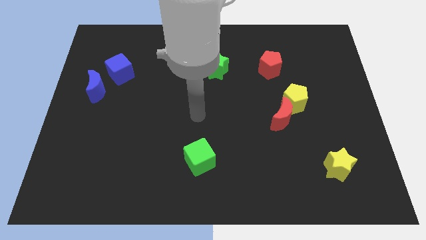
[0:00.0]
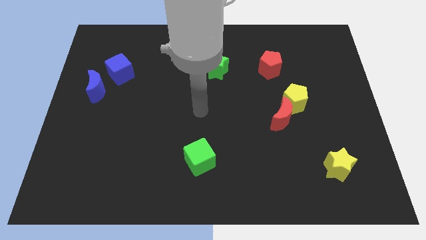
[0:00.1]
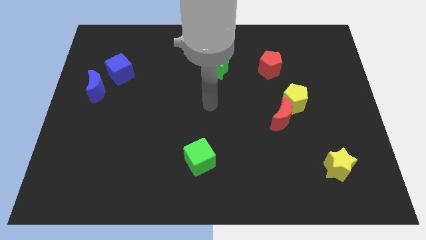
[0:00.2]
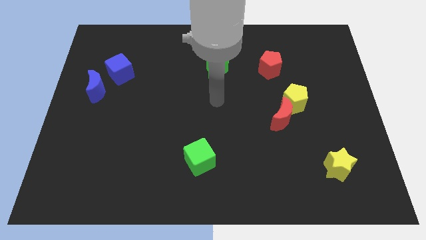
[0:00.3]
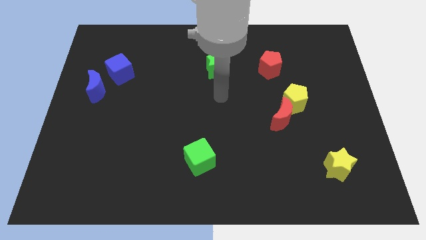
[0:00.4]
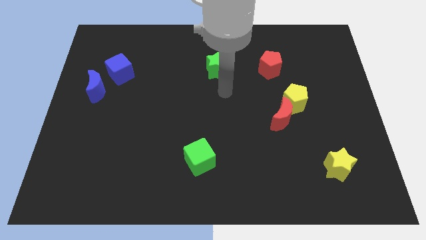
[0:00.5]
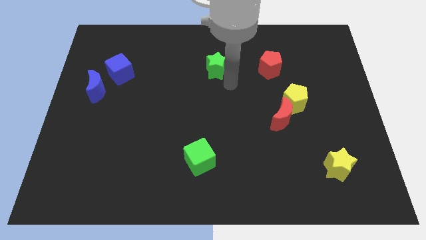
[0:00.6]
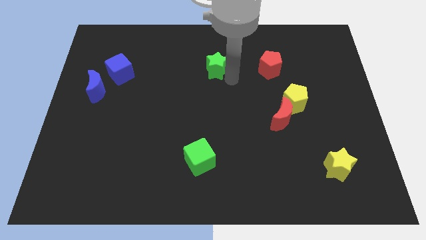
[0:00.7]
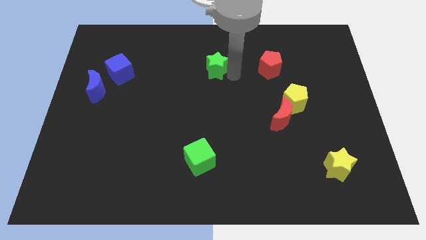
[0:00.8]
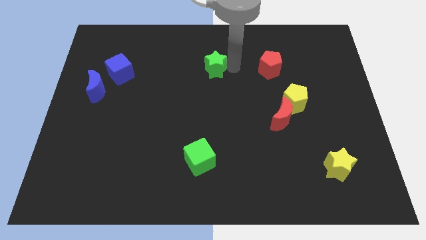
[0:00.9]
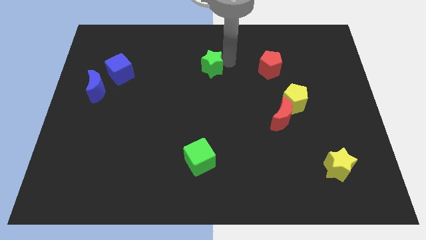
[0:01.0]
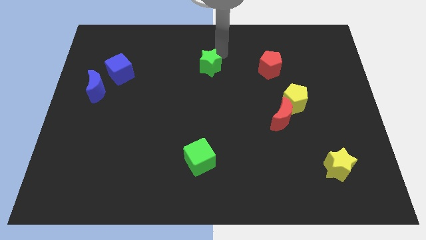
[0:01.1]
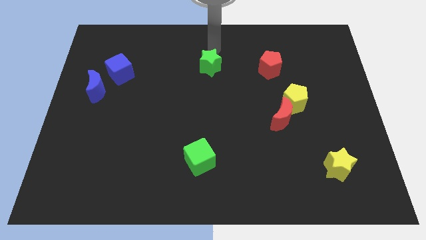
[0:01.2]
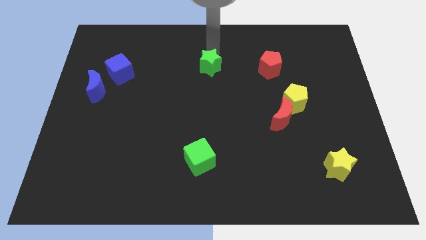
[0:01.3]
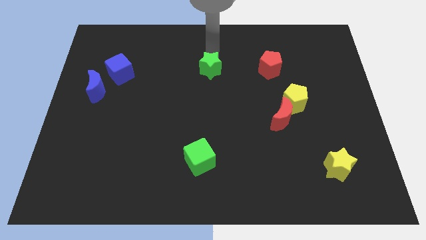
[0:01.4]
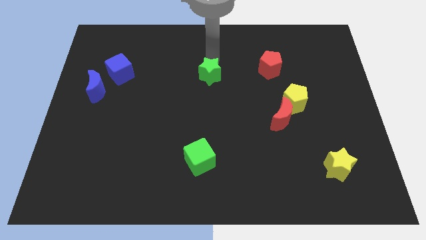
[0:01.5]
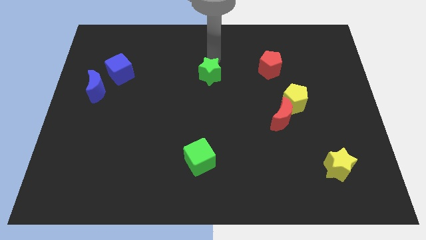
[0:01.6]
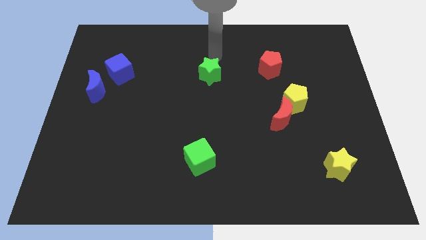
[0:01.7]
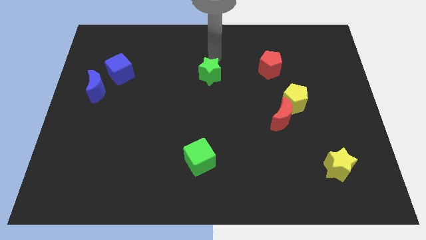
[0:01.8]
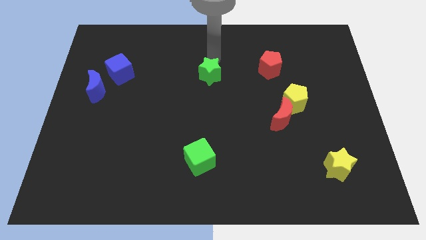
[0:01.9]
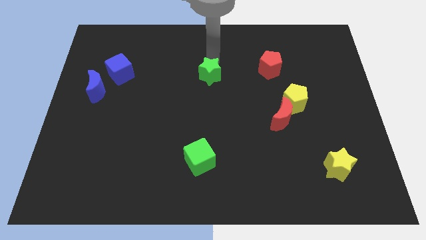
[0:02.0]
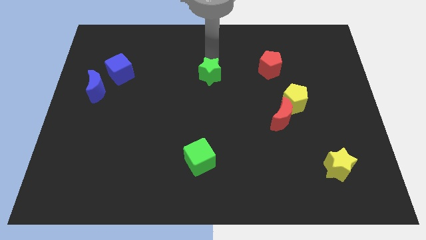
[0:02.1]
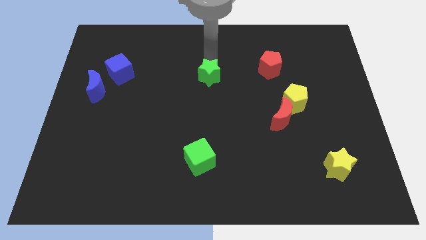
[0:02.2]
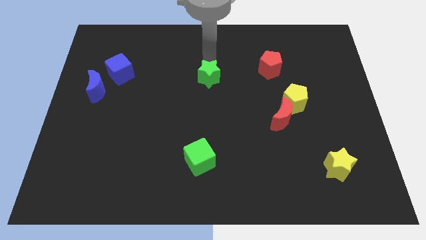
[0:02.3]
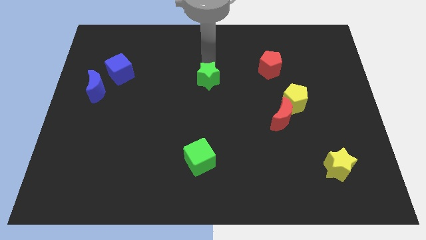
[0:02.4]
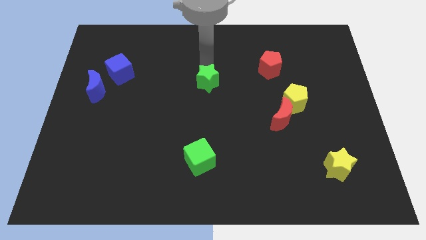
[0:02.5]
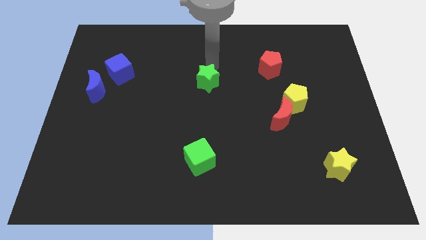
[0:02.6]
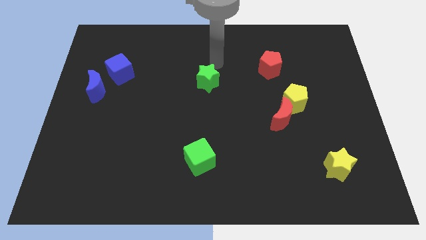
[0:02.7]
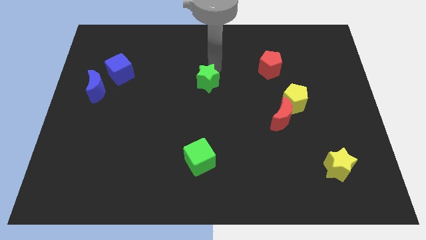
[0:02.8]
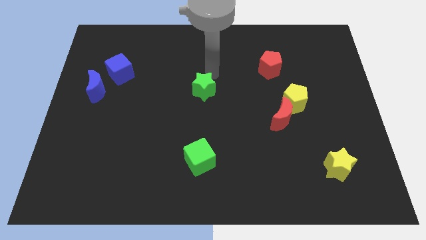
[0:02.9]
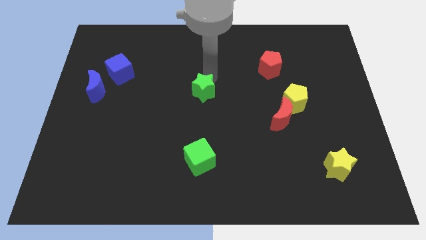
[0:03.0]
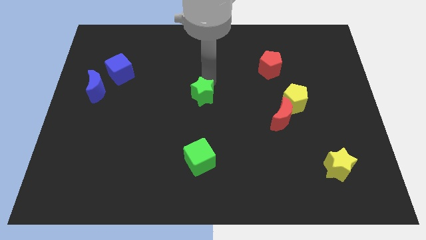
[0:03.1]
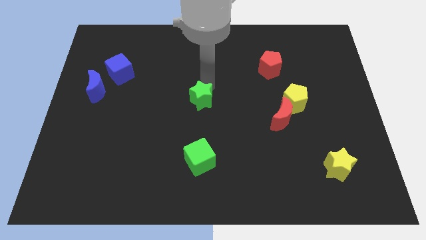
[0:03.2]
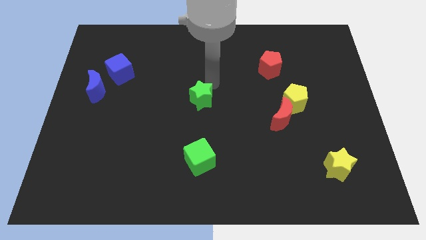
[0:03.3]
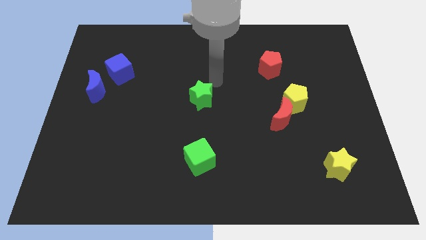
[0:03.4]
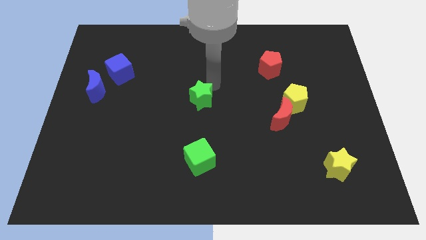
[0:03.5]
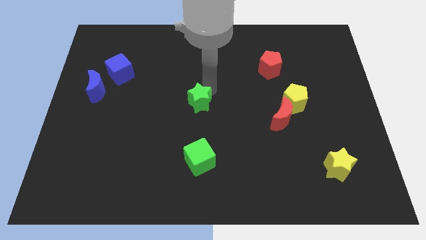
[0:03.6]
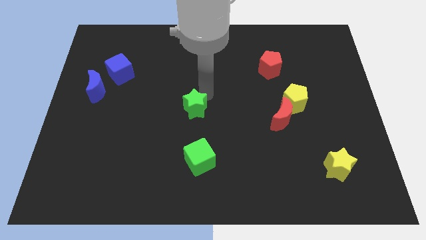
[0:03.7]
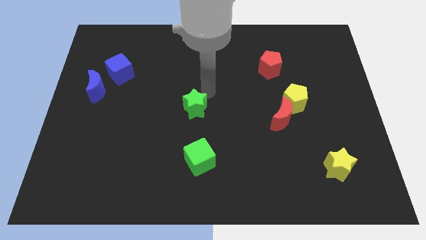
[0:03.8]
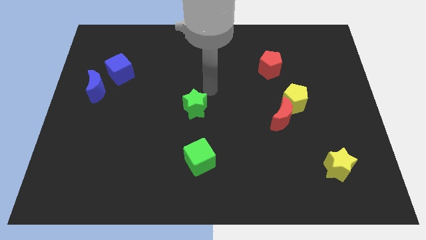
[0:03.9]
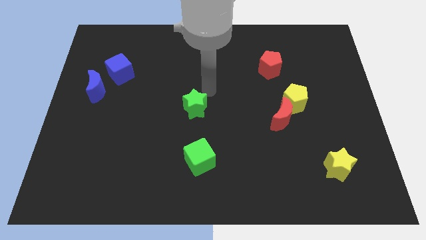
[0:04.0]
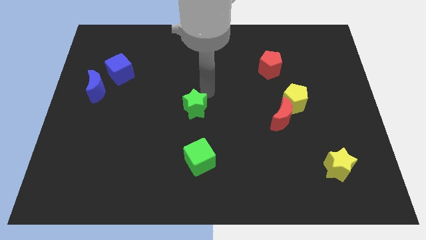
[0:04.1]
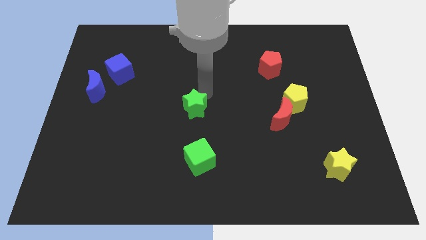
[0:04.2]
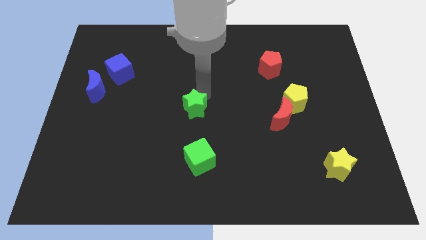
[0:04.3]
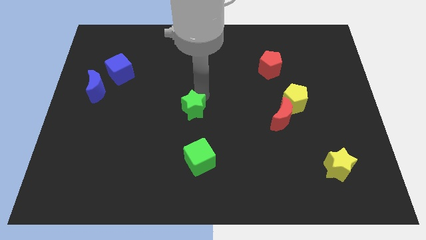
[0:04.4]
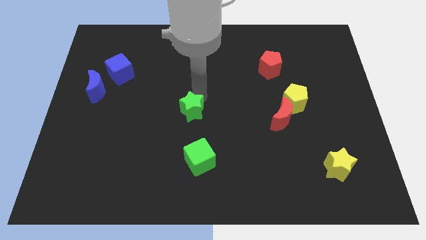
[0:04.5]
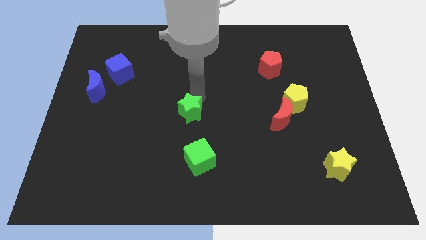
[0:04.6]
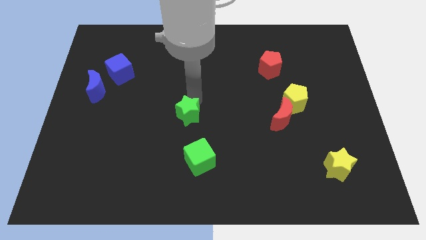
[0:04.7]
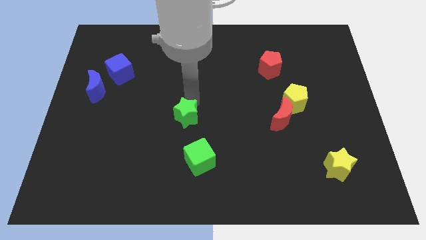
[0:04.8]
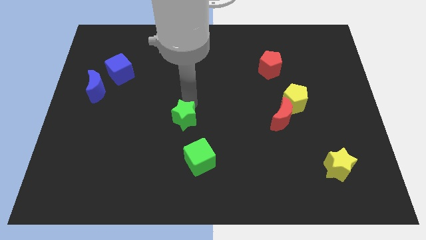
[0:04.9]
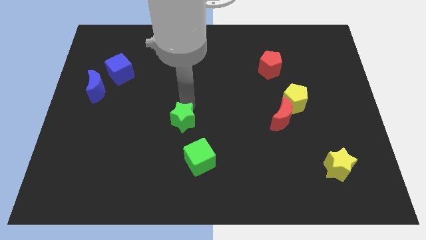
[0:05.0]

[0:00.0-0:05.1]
slide the green star diagonally up and to the left of the green cube

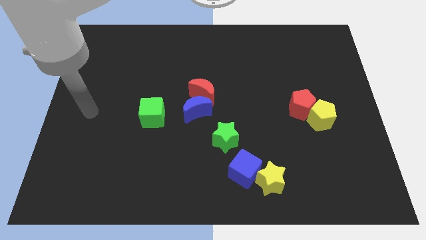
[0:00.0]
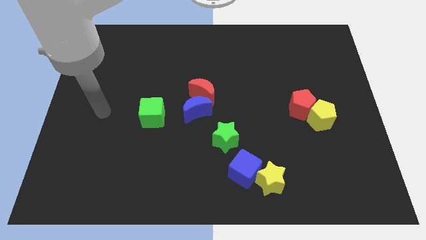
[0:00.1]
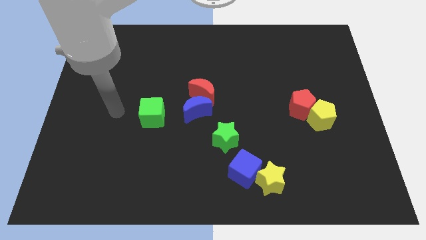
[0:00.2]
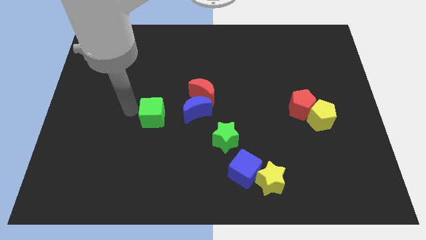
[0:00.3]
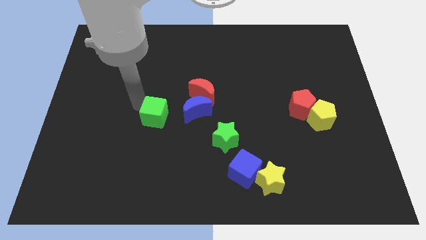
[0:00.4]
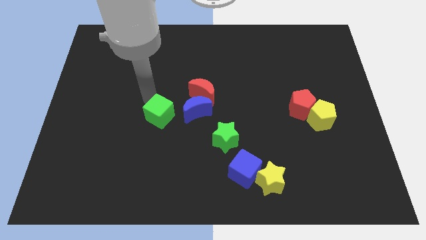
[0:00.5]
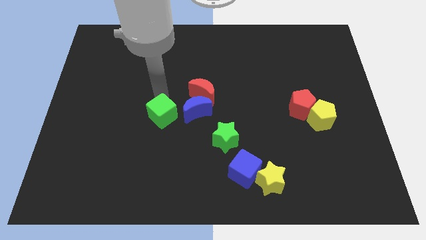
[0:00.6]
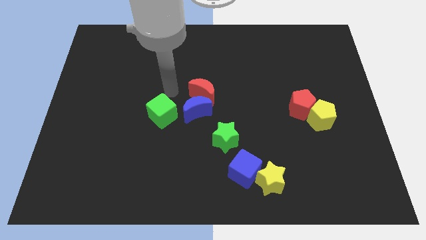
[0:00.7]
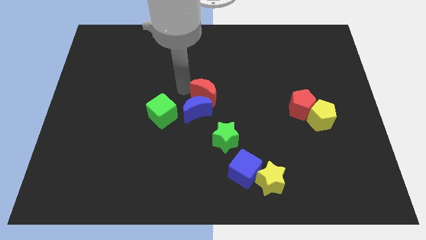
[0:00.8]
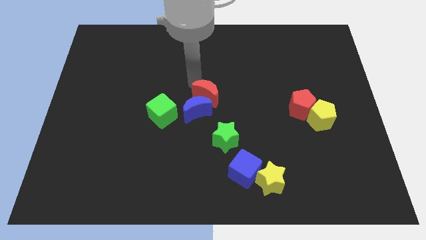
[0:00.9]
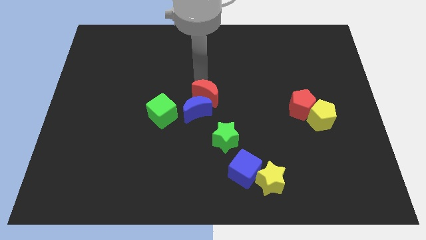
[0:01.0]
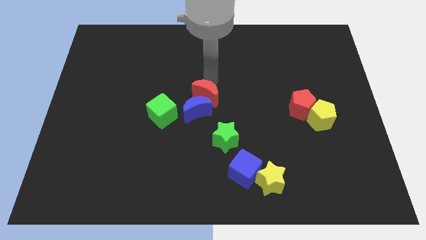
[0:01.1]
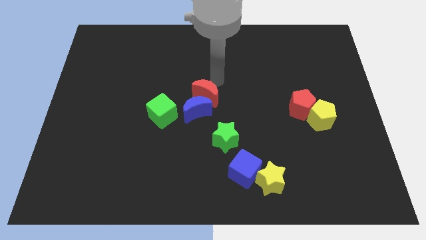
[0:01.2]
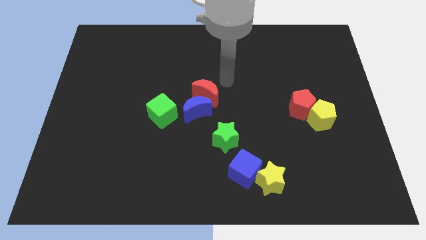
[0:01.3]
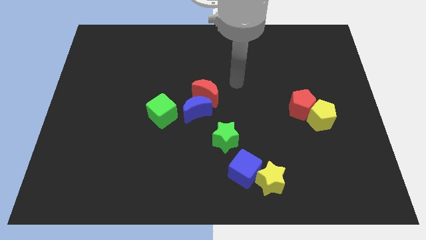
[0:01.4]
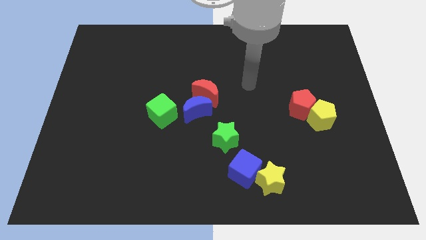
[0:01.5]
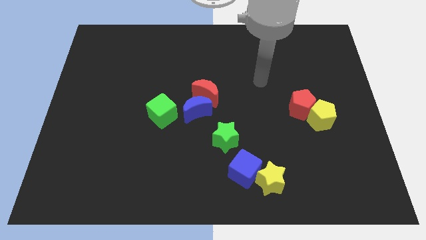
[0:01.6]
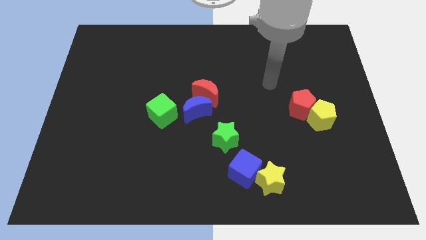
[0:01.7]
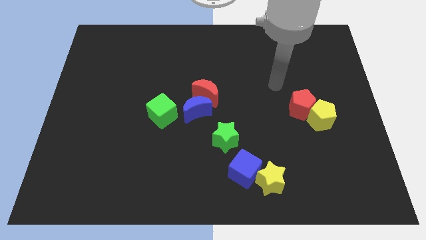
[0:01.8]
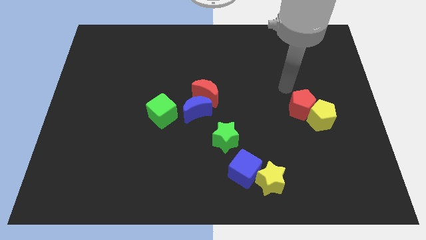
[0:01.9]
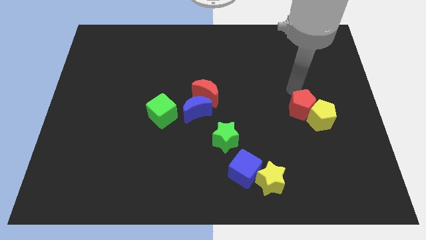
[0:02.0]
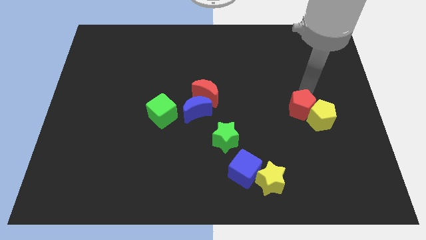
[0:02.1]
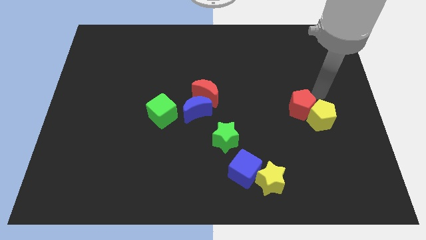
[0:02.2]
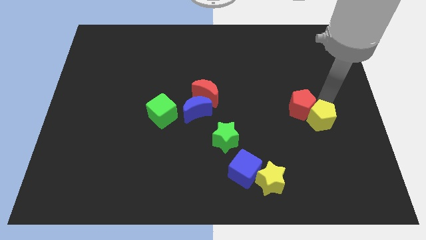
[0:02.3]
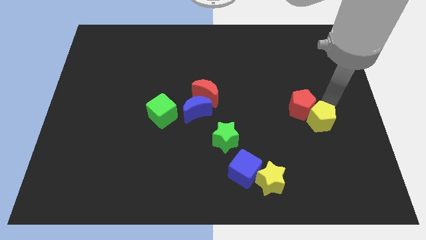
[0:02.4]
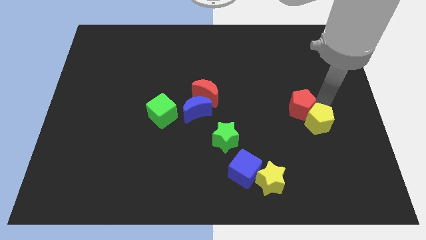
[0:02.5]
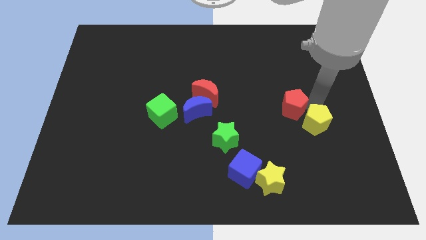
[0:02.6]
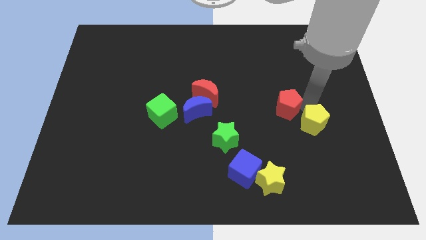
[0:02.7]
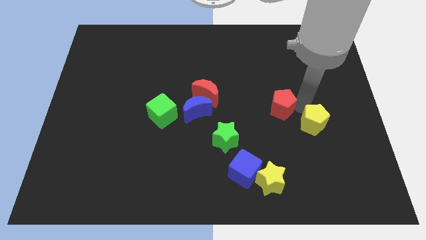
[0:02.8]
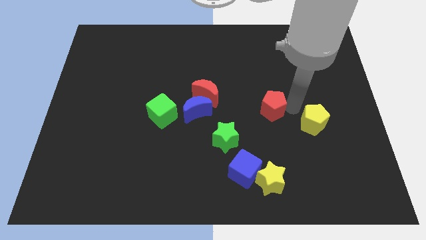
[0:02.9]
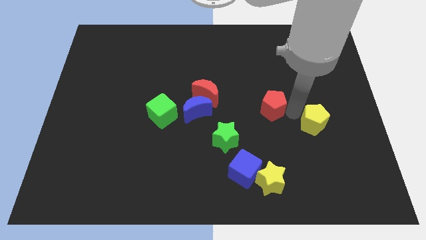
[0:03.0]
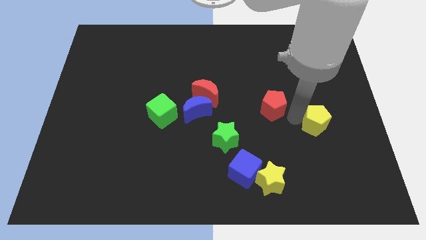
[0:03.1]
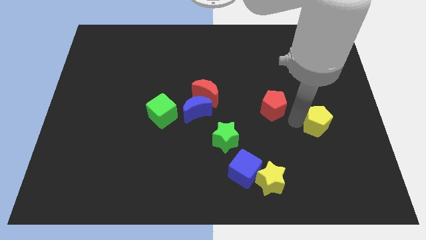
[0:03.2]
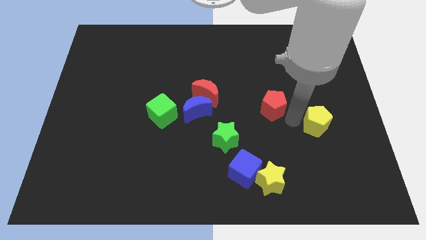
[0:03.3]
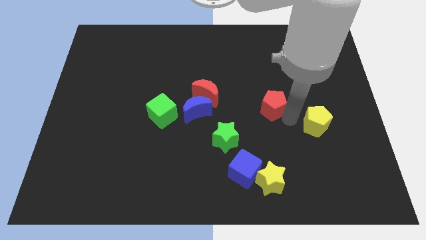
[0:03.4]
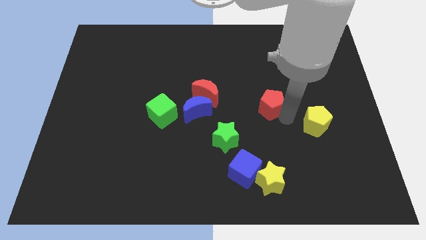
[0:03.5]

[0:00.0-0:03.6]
put the red pentagon right of the red moon
